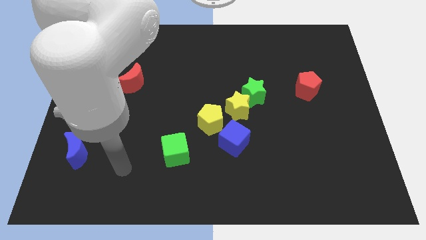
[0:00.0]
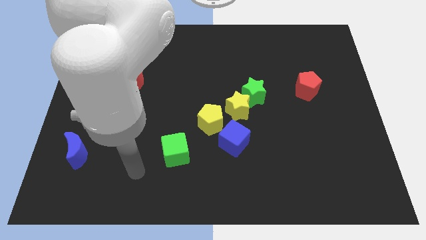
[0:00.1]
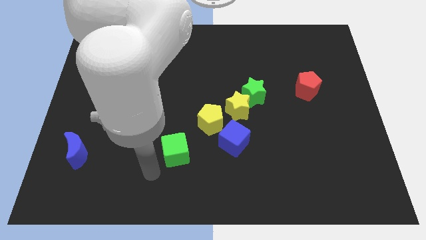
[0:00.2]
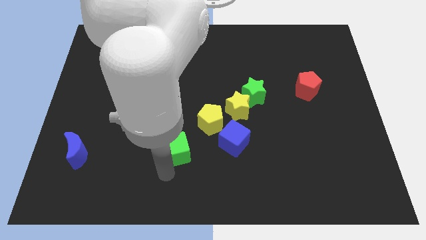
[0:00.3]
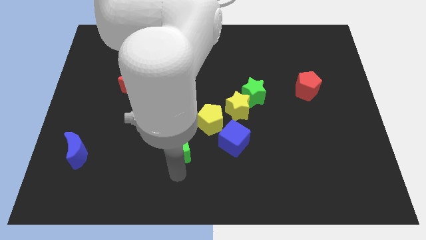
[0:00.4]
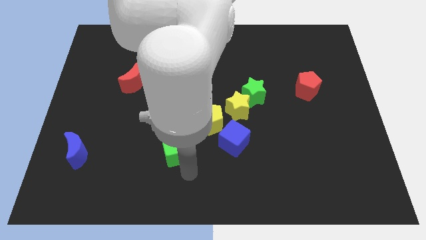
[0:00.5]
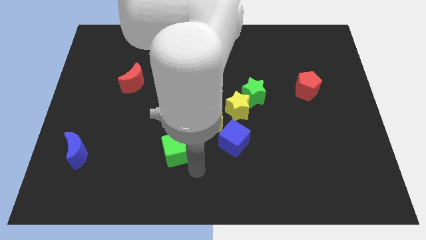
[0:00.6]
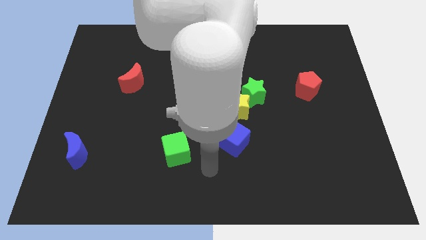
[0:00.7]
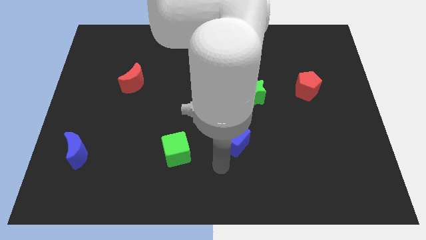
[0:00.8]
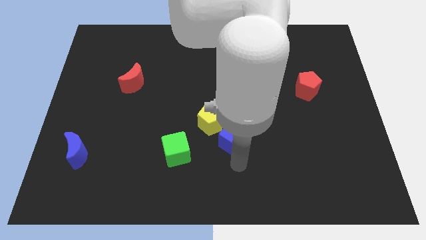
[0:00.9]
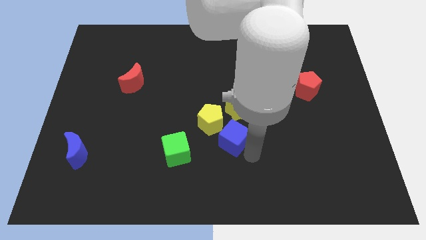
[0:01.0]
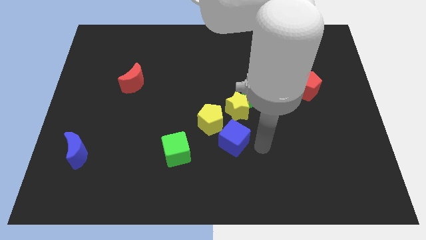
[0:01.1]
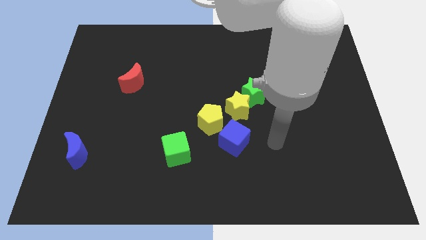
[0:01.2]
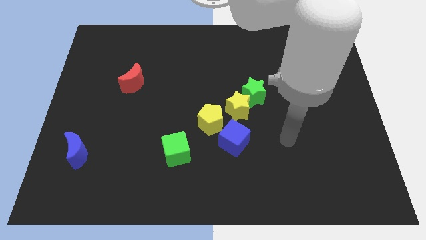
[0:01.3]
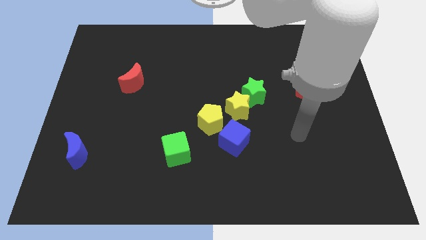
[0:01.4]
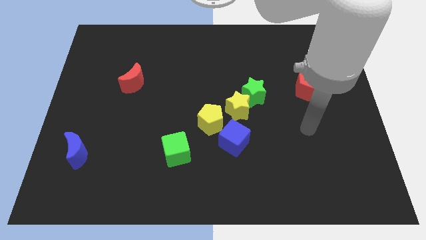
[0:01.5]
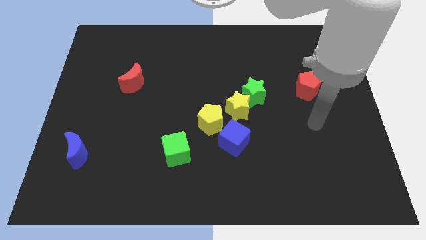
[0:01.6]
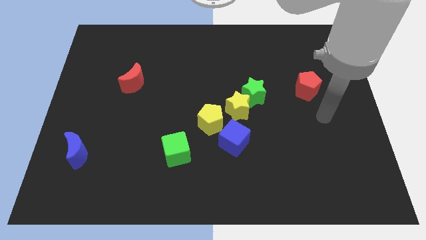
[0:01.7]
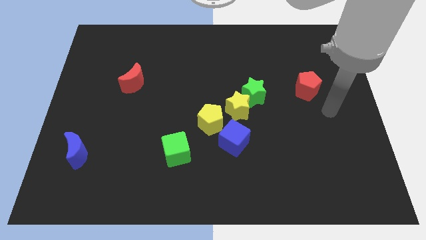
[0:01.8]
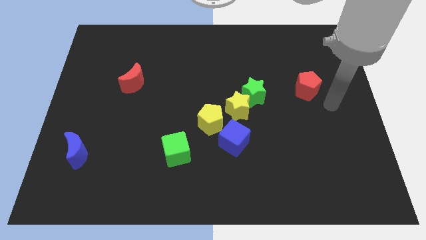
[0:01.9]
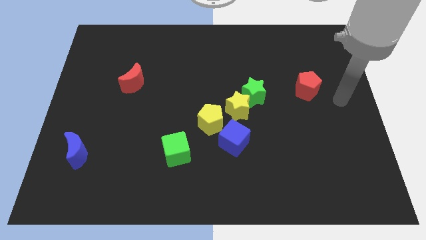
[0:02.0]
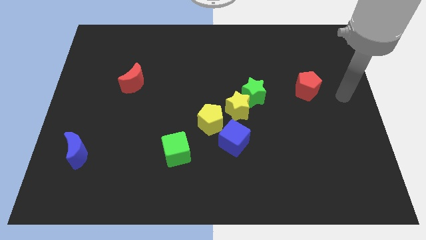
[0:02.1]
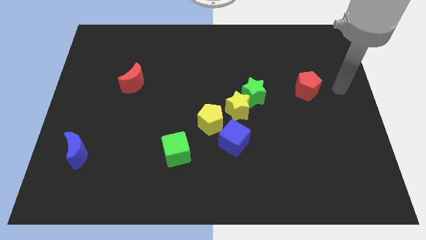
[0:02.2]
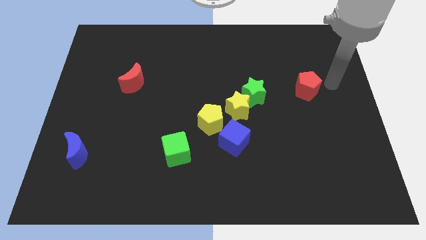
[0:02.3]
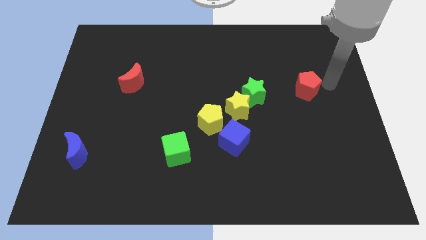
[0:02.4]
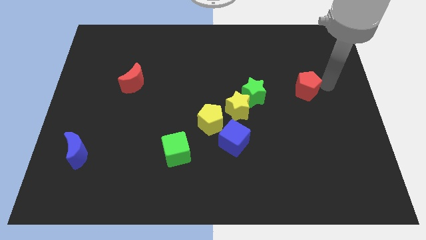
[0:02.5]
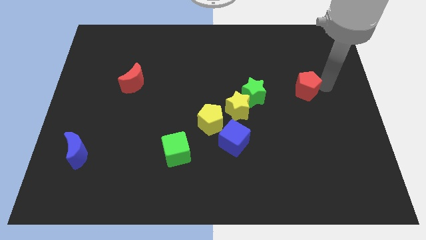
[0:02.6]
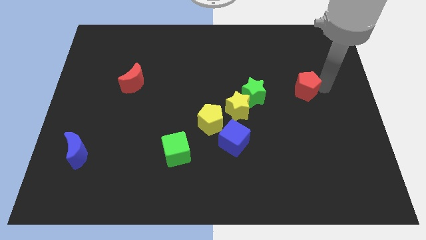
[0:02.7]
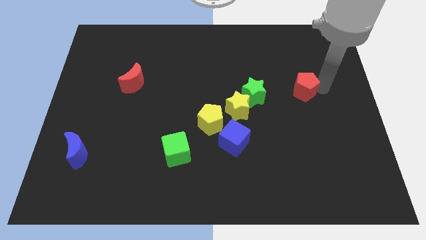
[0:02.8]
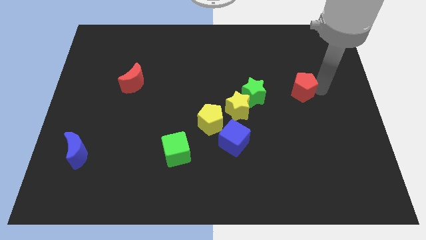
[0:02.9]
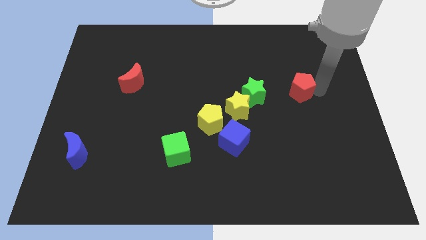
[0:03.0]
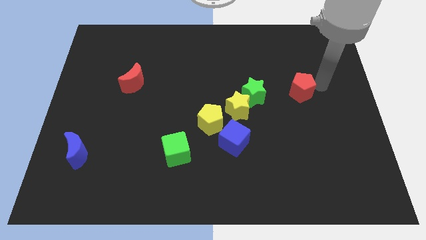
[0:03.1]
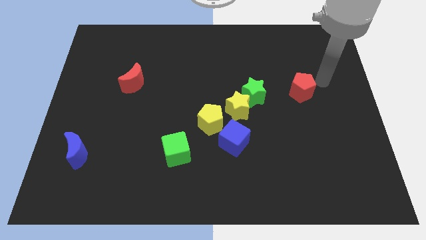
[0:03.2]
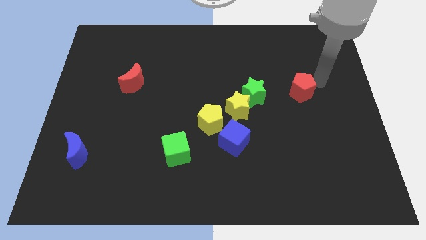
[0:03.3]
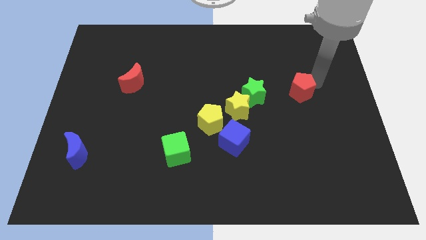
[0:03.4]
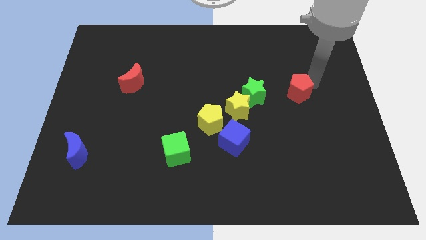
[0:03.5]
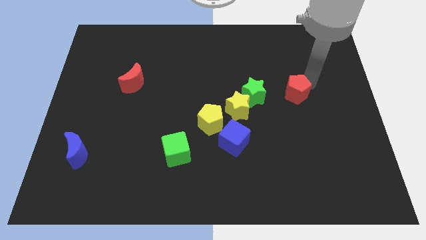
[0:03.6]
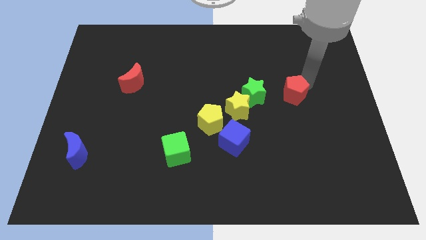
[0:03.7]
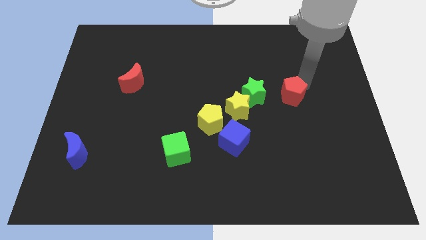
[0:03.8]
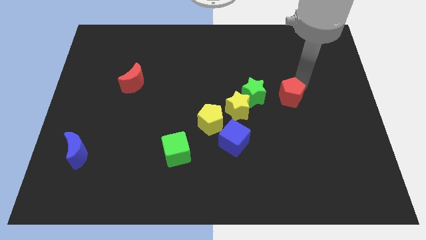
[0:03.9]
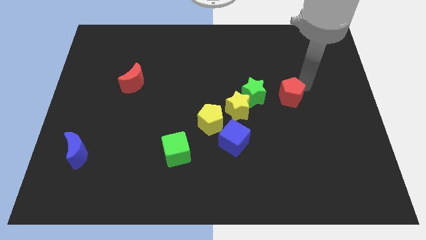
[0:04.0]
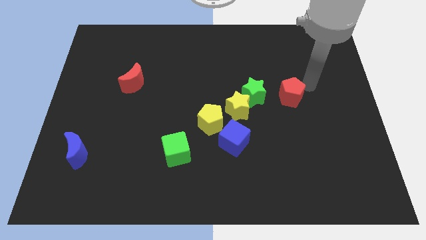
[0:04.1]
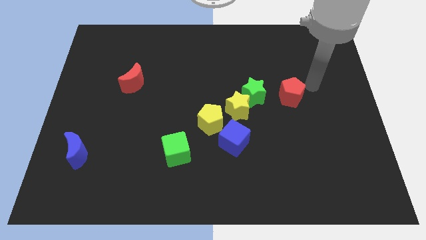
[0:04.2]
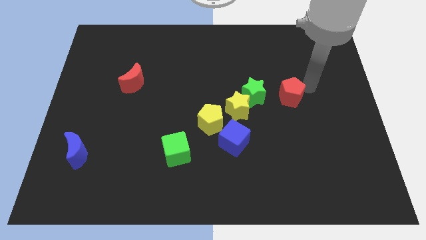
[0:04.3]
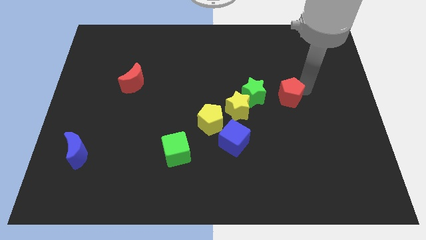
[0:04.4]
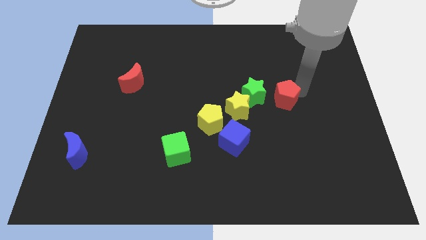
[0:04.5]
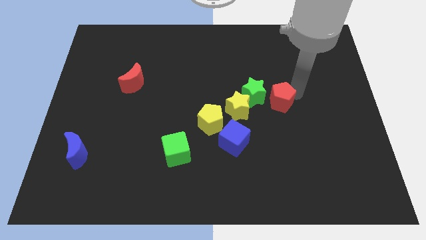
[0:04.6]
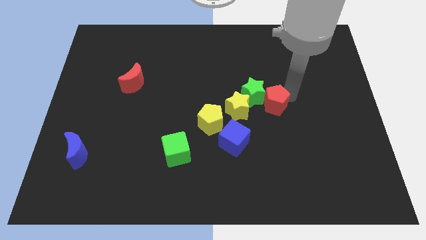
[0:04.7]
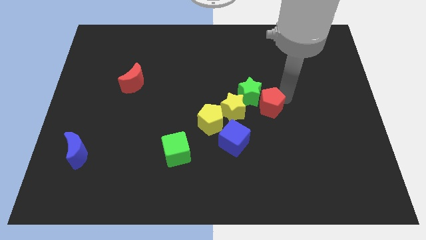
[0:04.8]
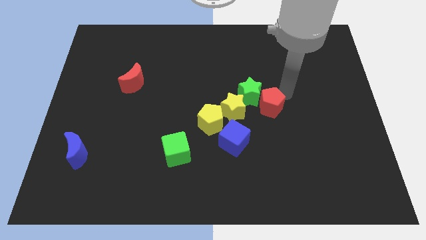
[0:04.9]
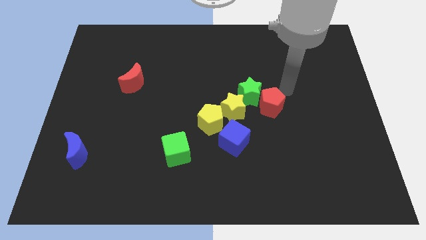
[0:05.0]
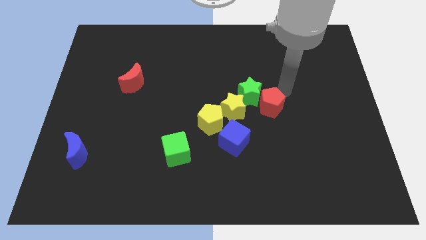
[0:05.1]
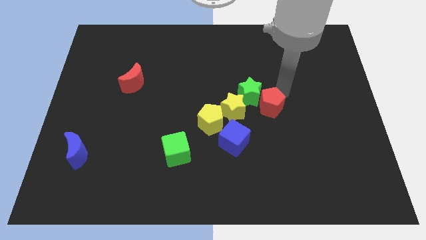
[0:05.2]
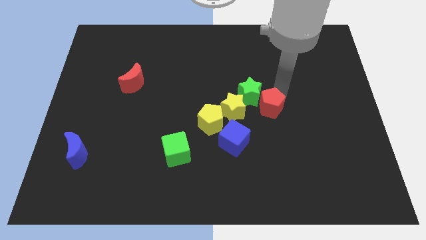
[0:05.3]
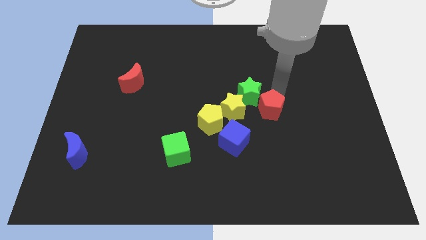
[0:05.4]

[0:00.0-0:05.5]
put the red pentagon to the top right of the blue cube

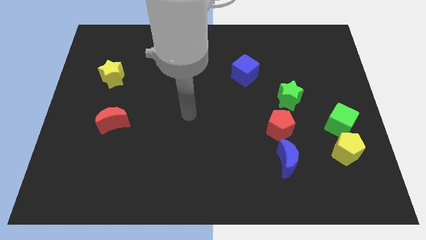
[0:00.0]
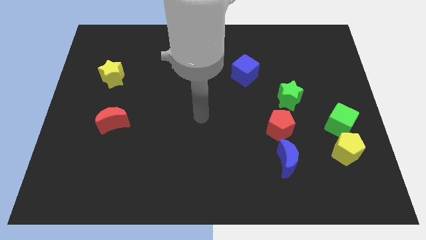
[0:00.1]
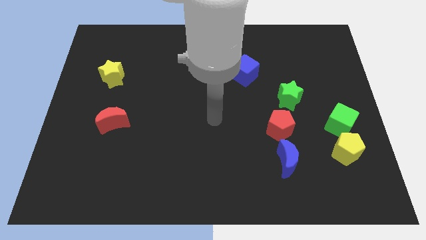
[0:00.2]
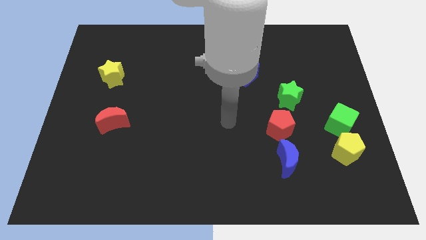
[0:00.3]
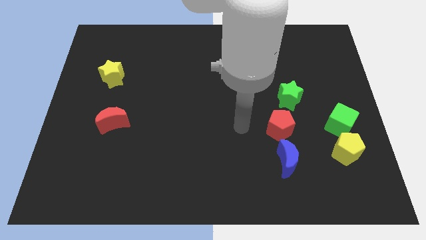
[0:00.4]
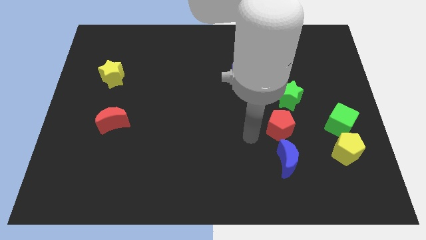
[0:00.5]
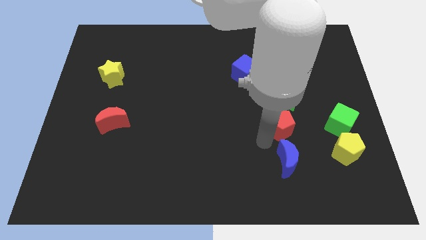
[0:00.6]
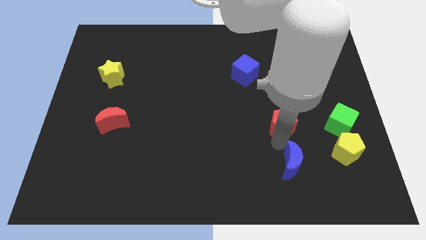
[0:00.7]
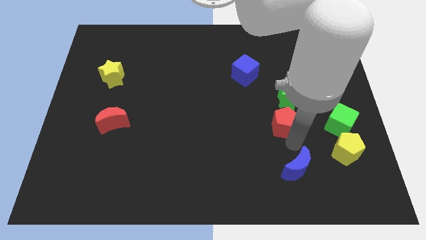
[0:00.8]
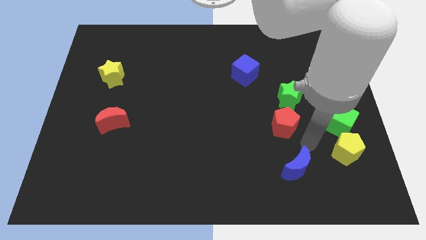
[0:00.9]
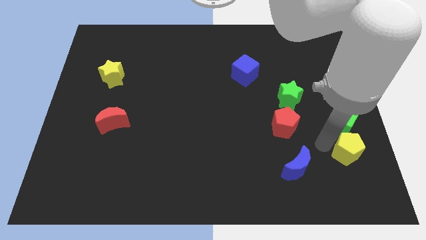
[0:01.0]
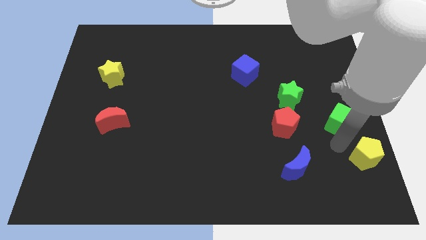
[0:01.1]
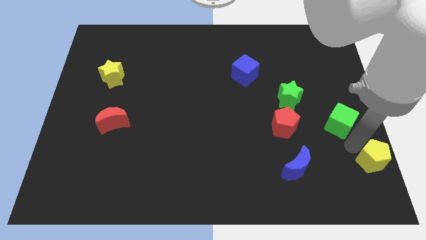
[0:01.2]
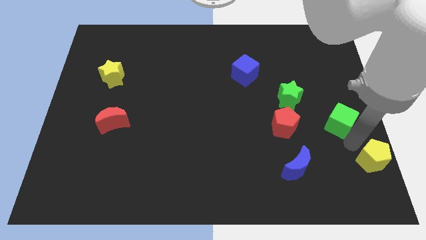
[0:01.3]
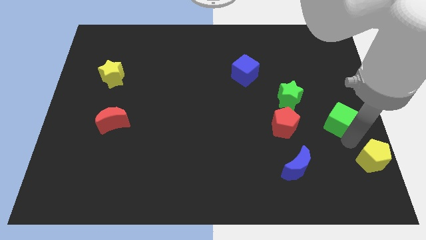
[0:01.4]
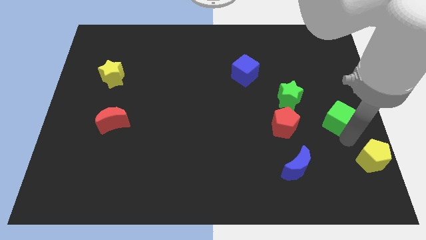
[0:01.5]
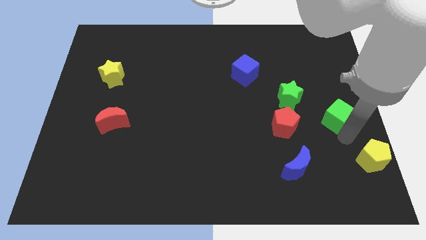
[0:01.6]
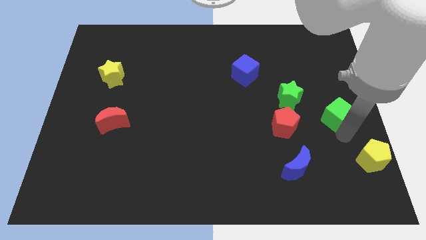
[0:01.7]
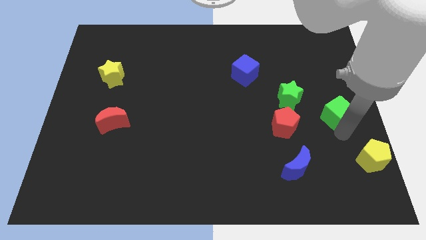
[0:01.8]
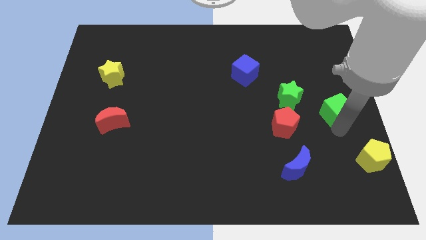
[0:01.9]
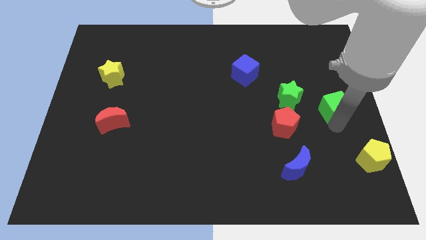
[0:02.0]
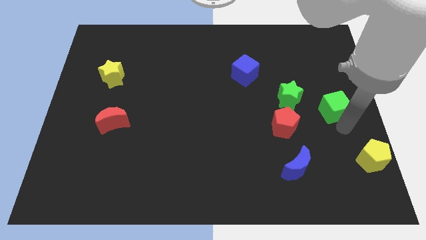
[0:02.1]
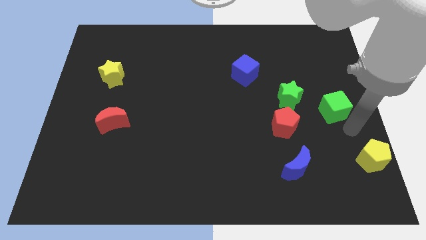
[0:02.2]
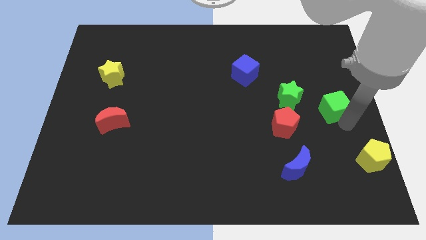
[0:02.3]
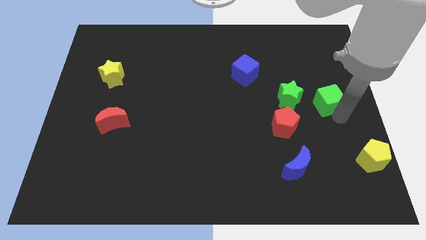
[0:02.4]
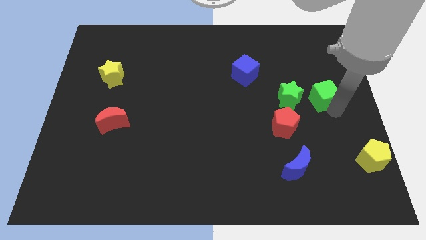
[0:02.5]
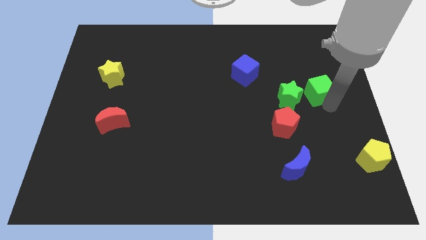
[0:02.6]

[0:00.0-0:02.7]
slide the green cube to the top right of the green star
